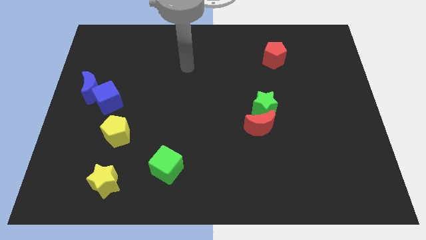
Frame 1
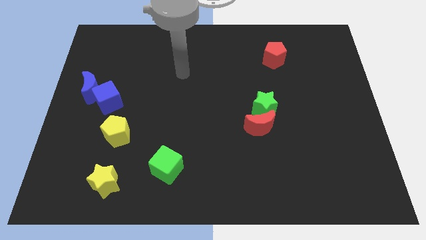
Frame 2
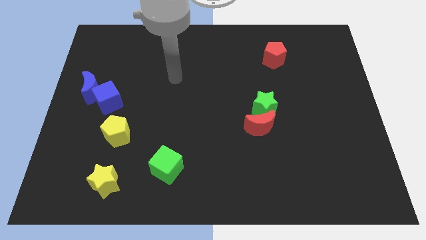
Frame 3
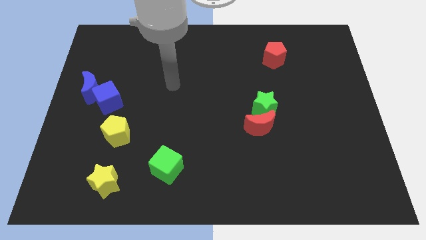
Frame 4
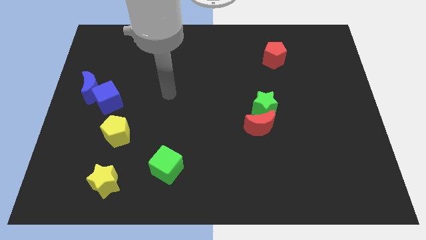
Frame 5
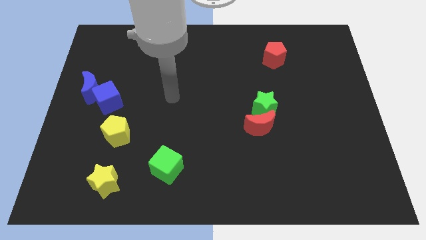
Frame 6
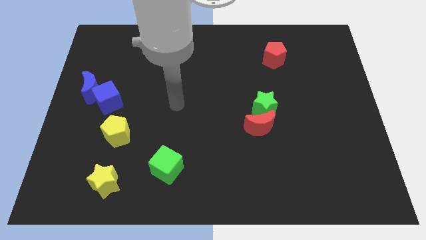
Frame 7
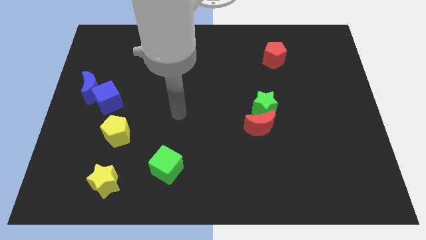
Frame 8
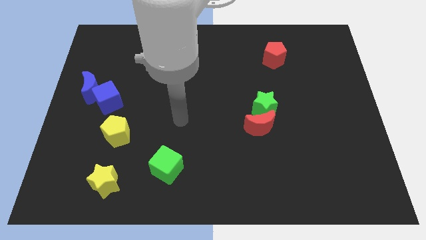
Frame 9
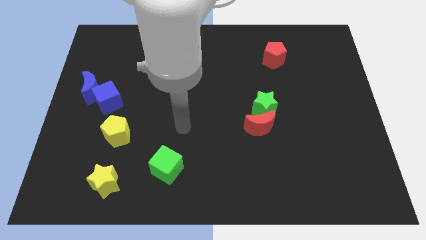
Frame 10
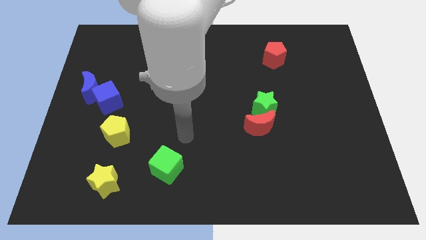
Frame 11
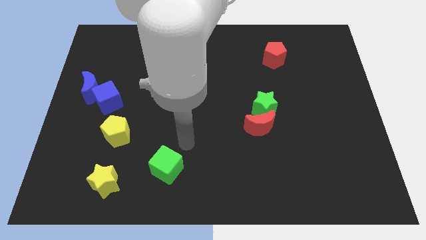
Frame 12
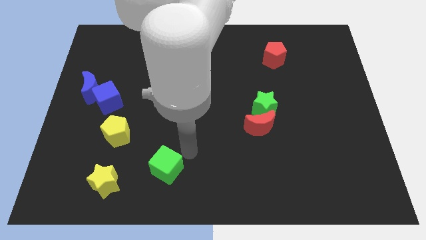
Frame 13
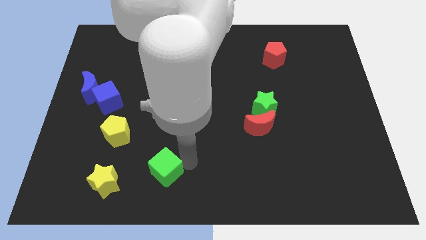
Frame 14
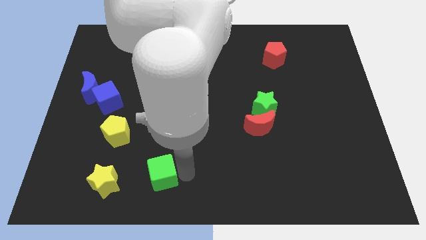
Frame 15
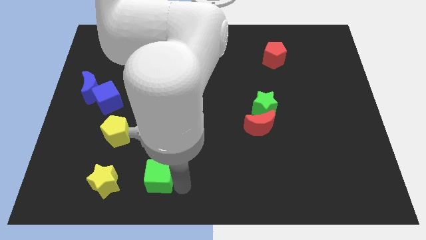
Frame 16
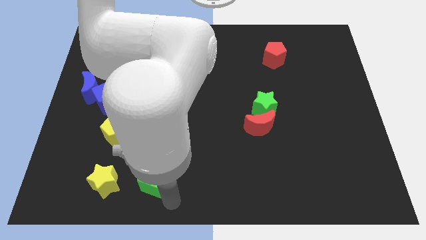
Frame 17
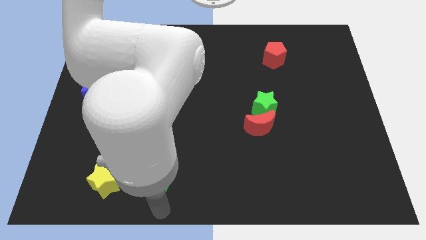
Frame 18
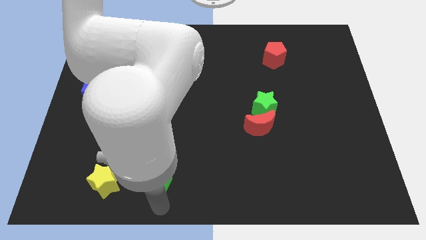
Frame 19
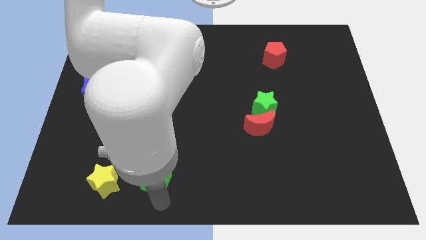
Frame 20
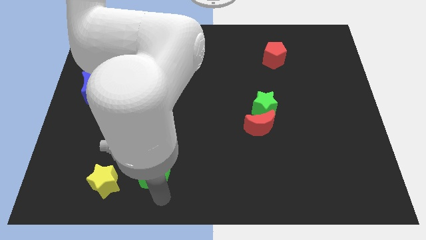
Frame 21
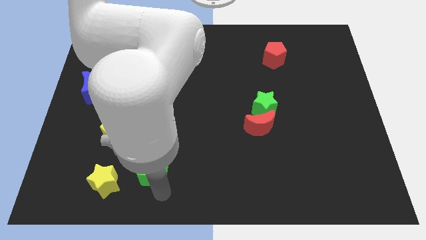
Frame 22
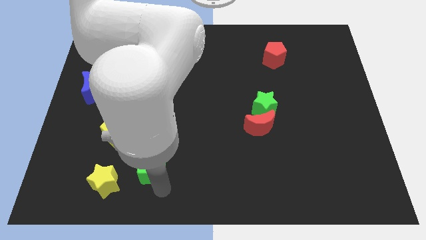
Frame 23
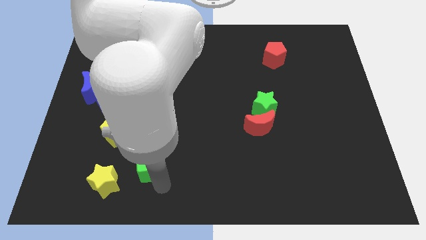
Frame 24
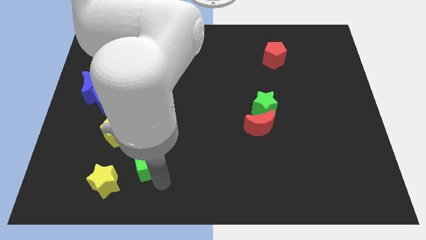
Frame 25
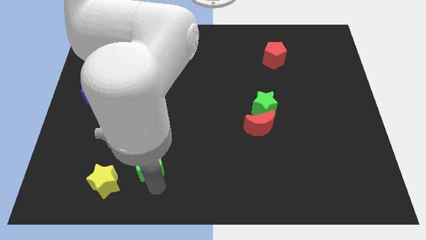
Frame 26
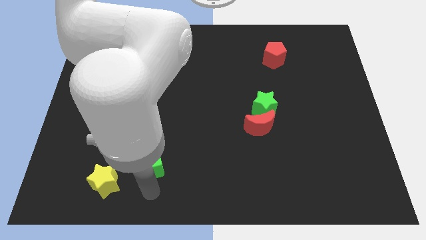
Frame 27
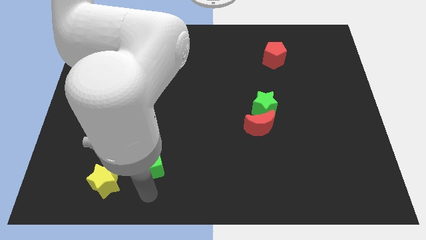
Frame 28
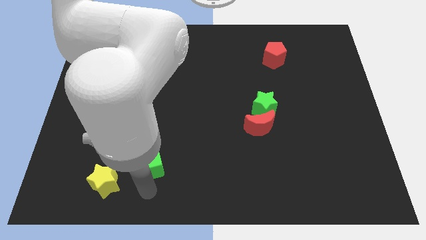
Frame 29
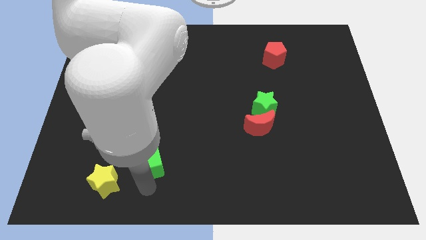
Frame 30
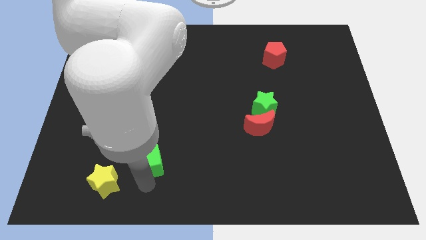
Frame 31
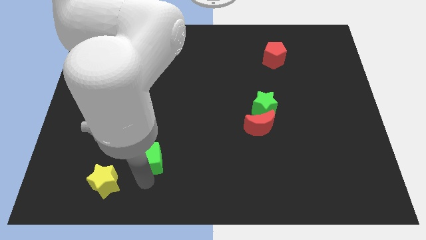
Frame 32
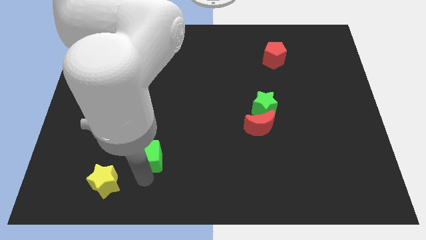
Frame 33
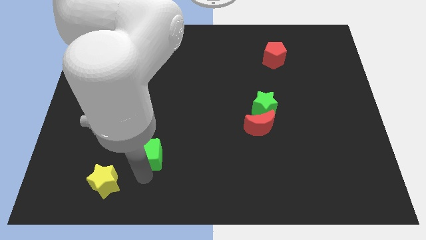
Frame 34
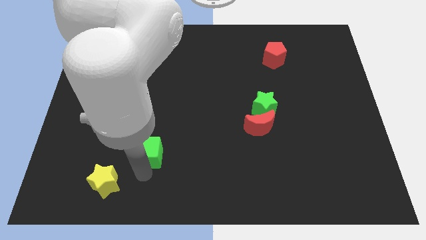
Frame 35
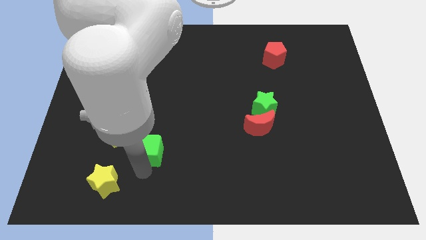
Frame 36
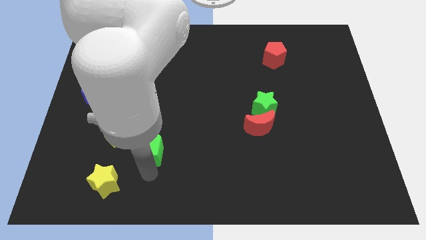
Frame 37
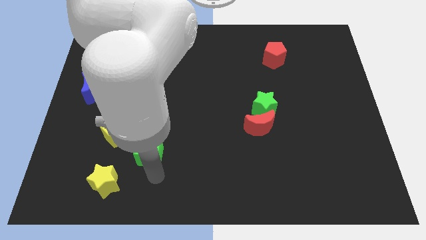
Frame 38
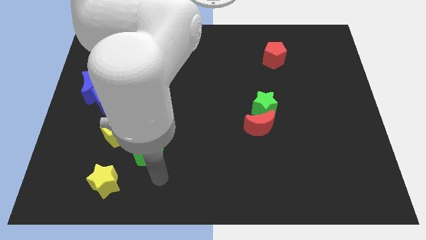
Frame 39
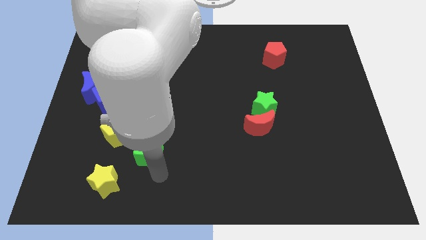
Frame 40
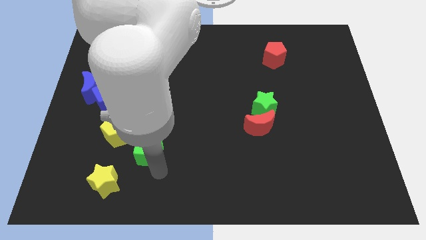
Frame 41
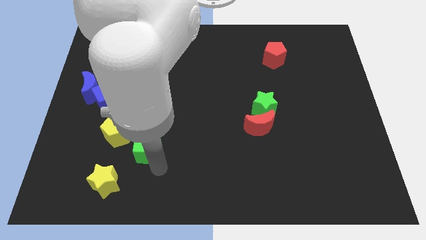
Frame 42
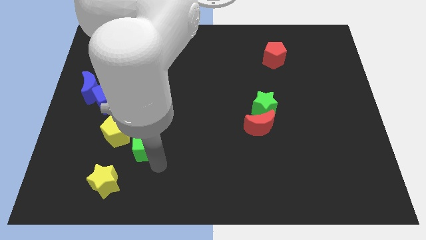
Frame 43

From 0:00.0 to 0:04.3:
push the green cube up and then to the left a bit

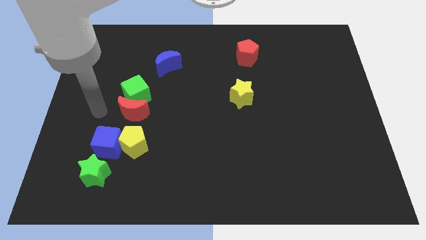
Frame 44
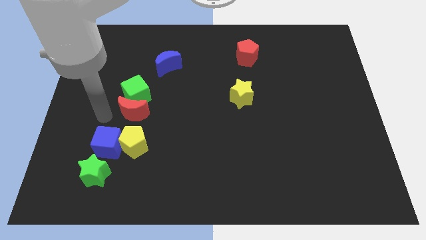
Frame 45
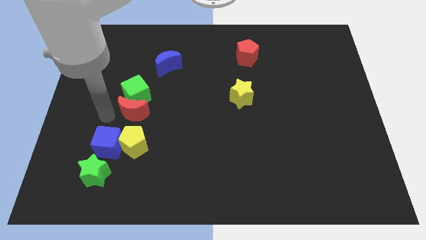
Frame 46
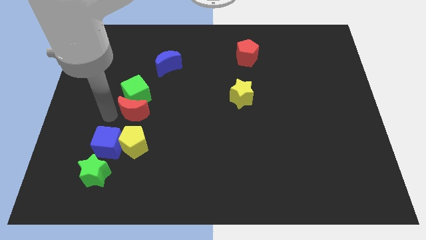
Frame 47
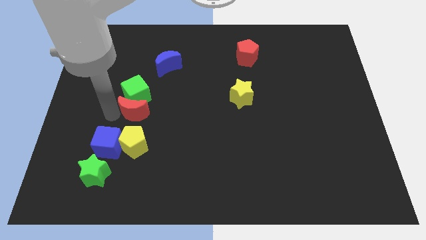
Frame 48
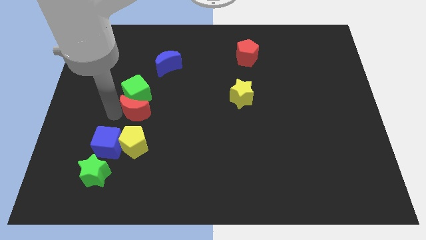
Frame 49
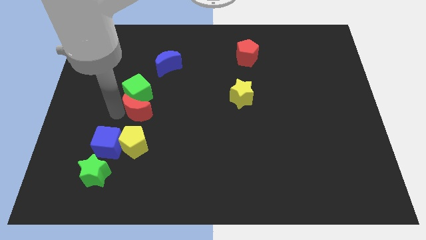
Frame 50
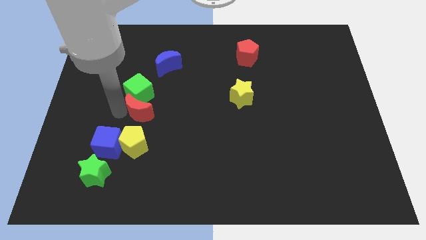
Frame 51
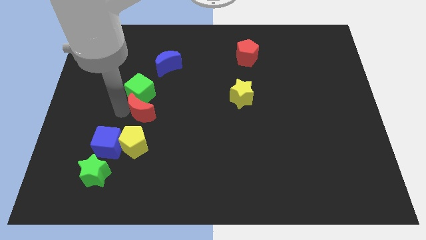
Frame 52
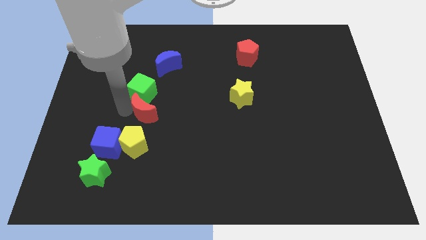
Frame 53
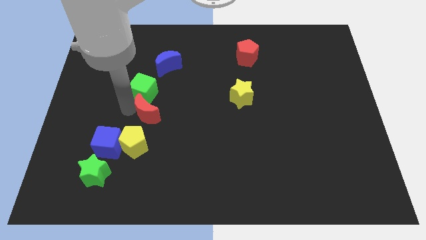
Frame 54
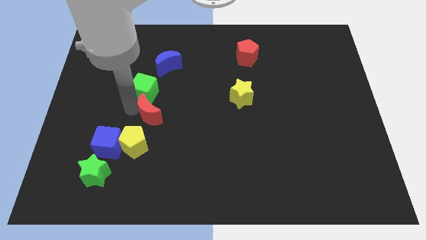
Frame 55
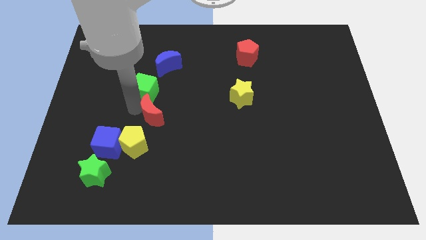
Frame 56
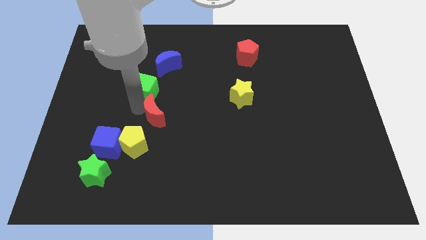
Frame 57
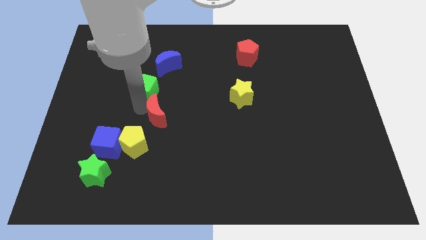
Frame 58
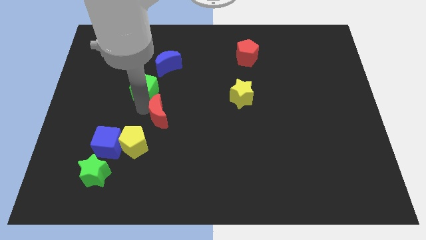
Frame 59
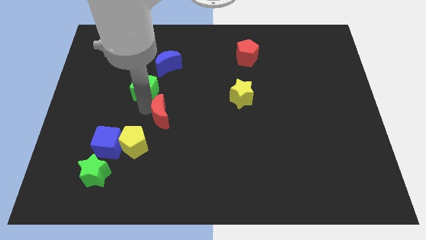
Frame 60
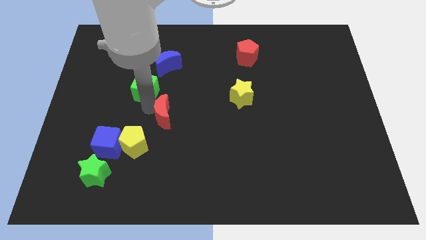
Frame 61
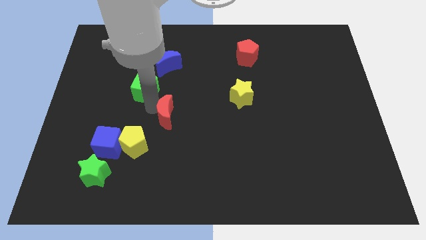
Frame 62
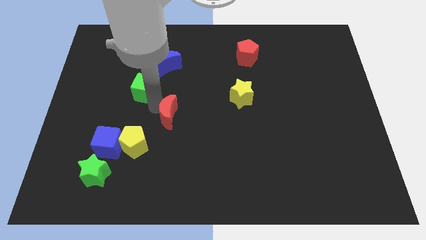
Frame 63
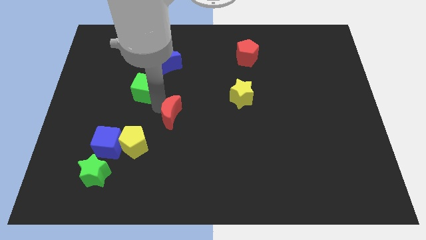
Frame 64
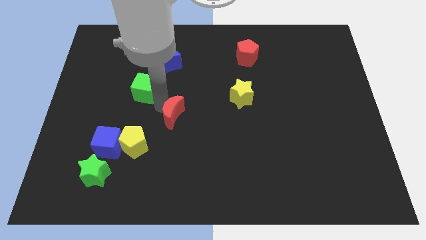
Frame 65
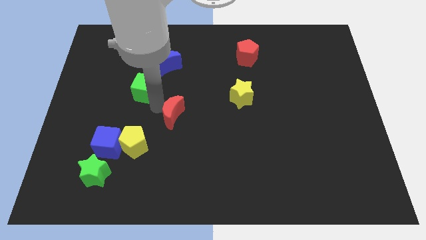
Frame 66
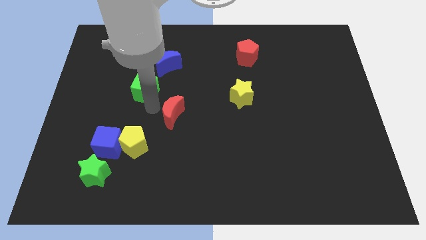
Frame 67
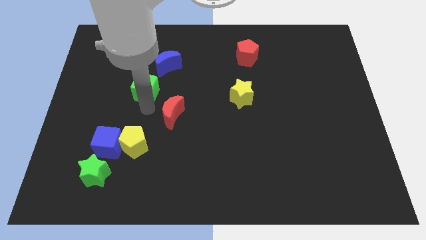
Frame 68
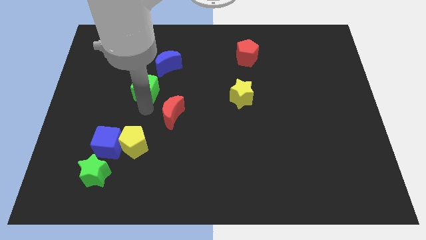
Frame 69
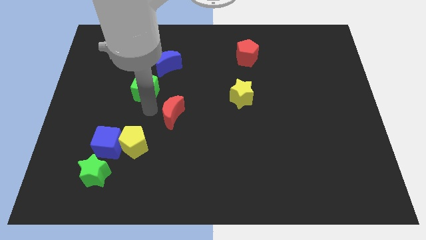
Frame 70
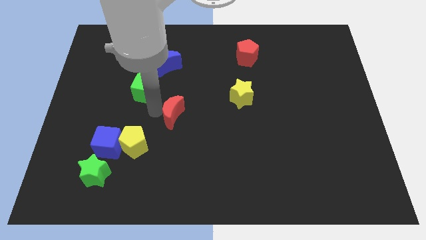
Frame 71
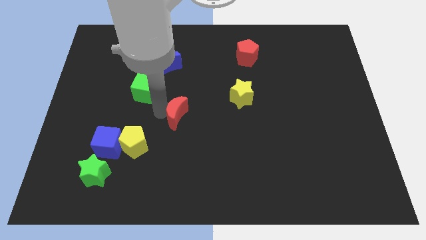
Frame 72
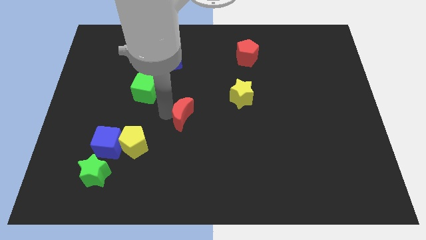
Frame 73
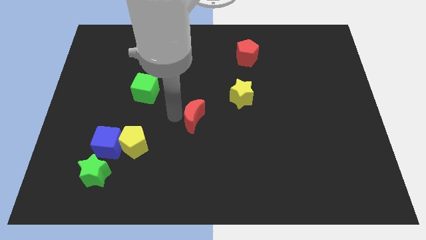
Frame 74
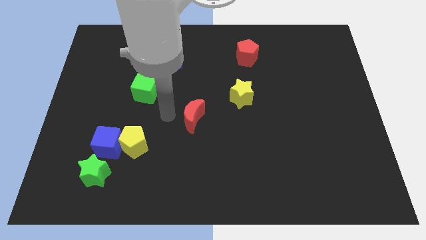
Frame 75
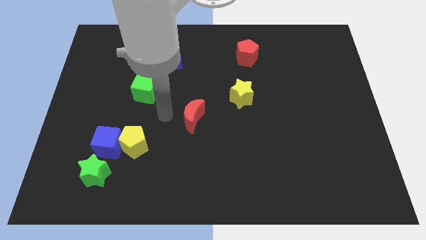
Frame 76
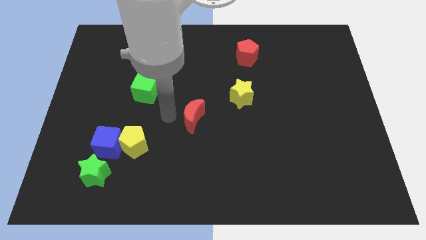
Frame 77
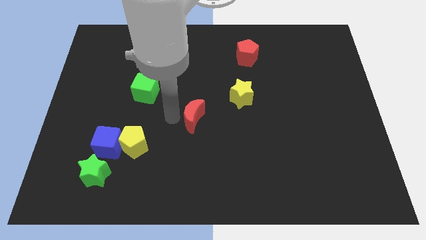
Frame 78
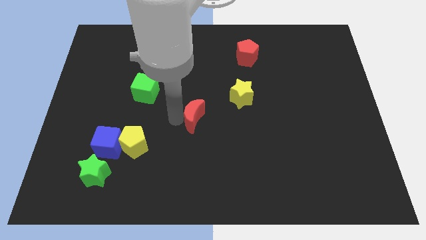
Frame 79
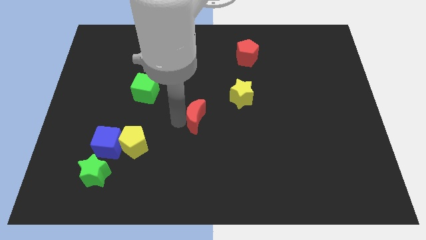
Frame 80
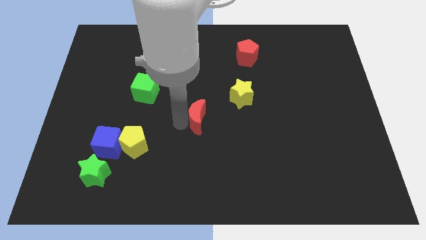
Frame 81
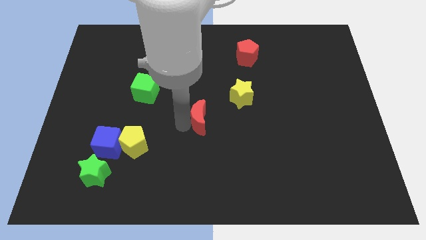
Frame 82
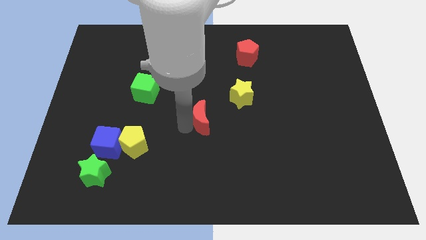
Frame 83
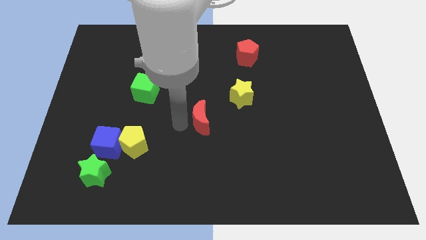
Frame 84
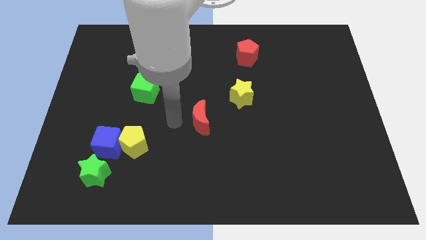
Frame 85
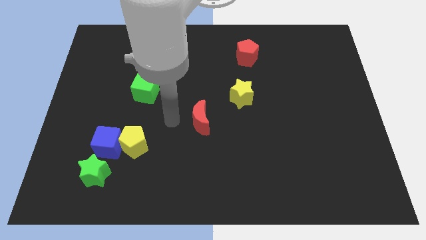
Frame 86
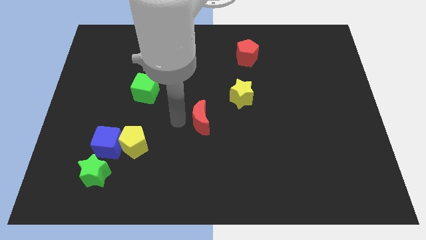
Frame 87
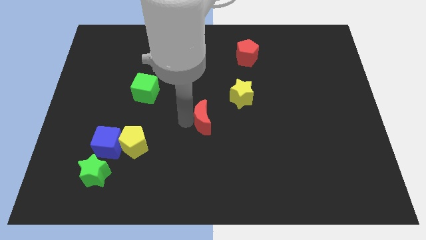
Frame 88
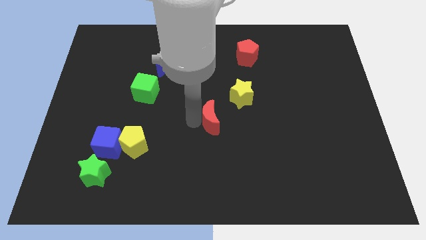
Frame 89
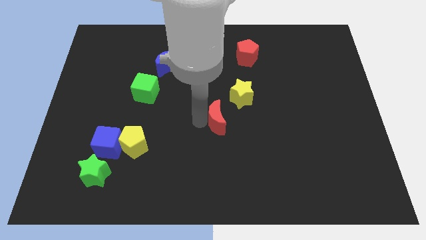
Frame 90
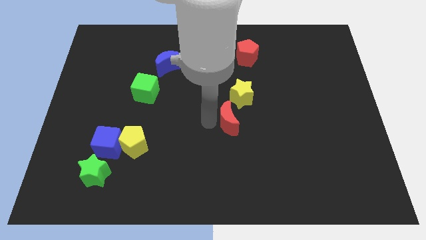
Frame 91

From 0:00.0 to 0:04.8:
push the red moon right
